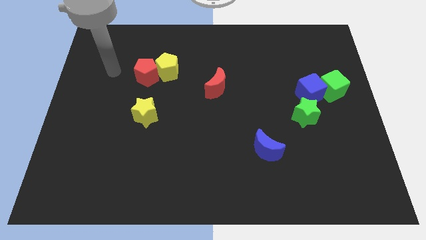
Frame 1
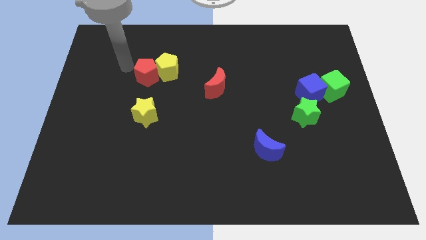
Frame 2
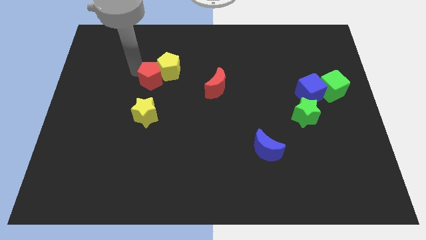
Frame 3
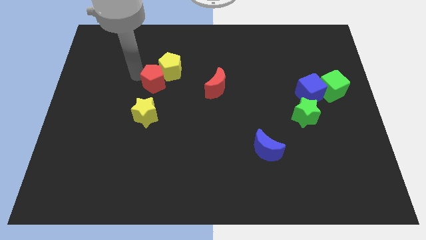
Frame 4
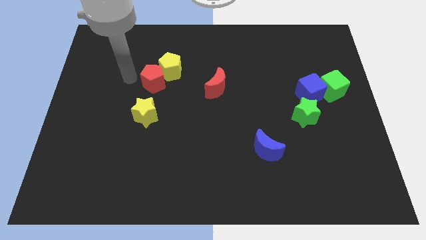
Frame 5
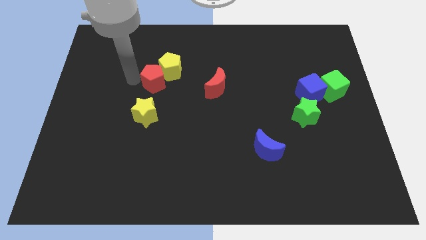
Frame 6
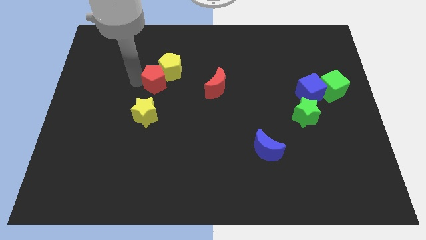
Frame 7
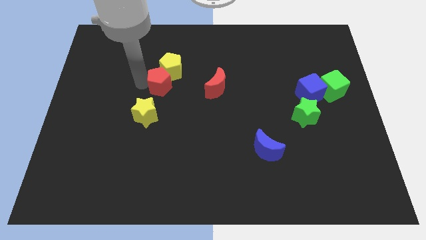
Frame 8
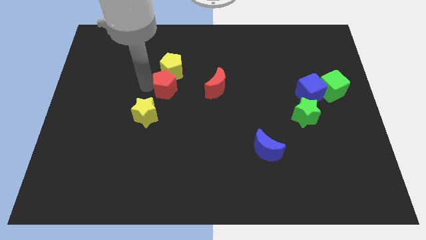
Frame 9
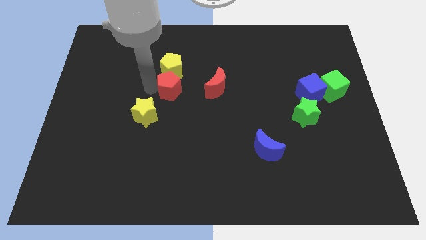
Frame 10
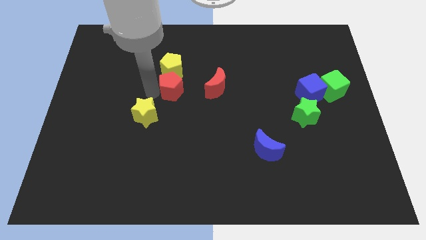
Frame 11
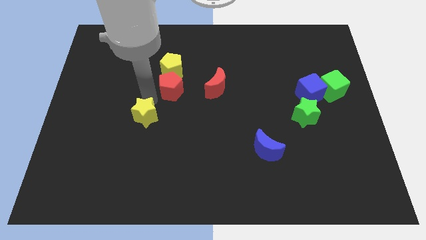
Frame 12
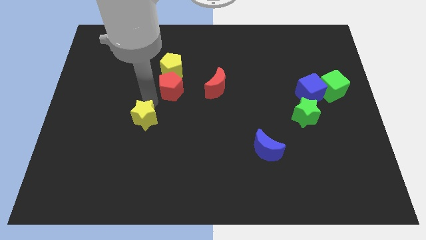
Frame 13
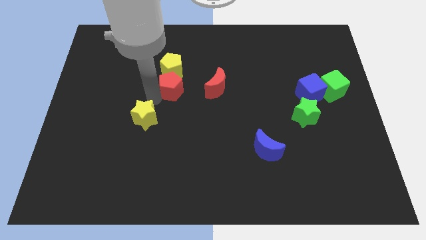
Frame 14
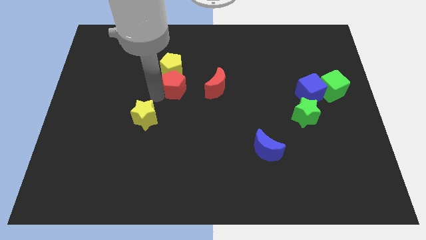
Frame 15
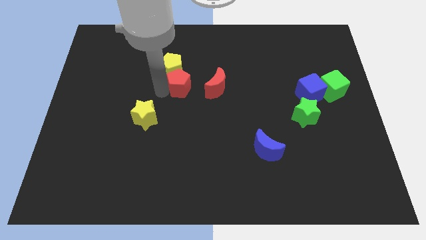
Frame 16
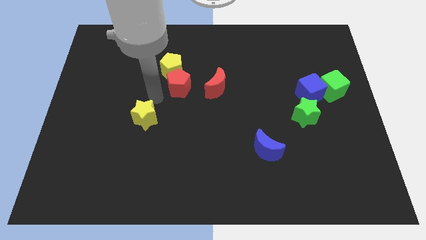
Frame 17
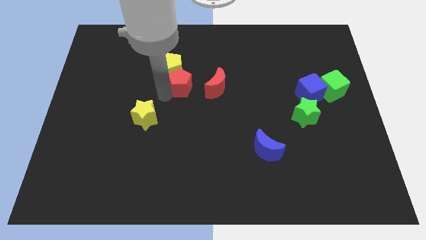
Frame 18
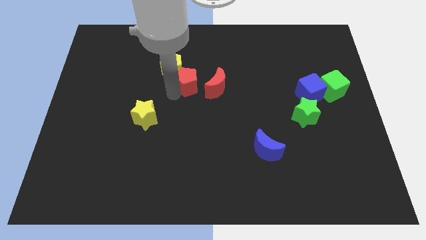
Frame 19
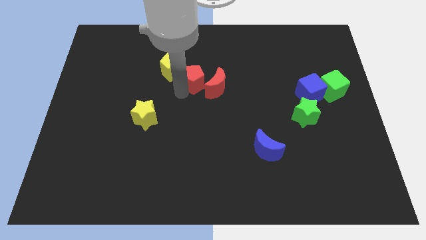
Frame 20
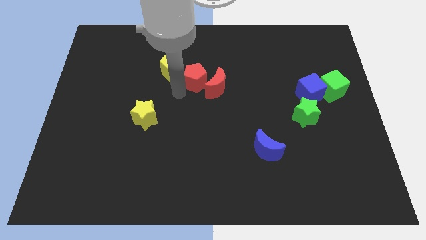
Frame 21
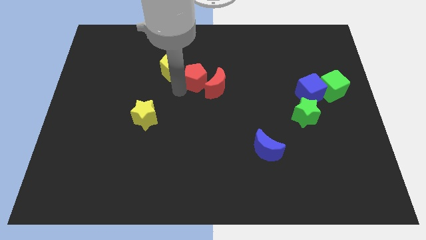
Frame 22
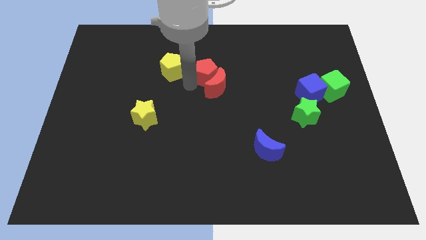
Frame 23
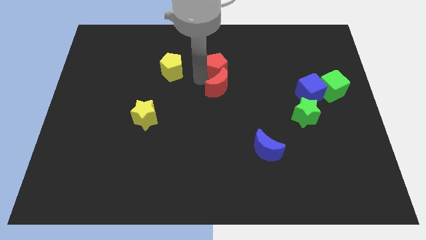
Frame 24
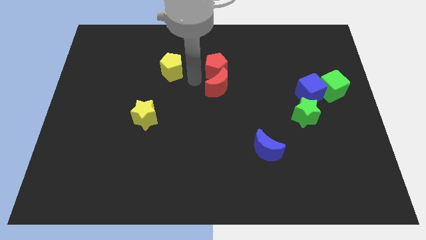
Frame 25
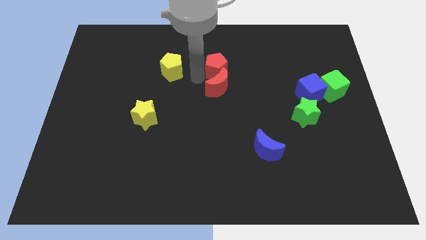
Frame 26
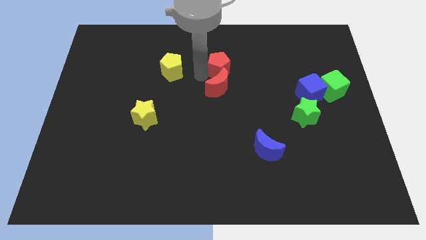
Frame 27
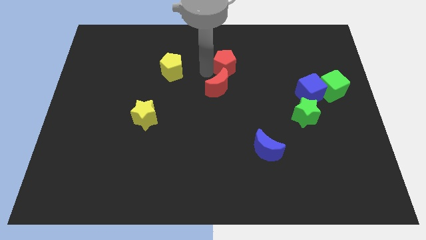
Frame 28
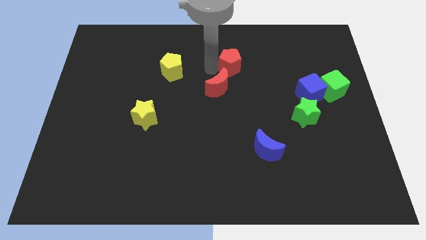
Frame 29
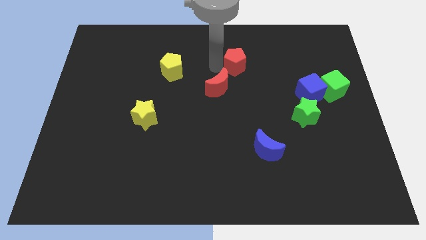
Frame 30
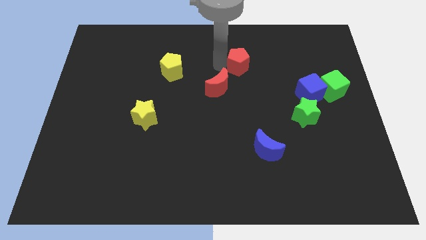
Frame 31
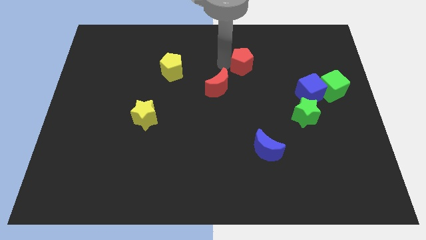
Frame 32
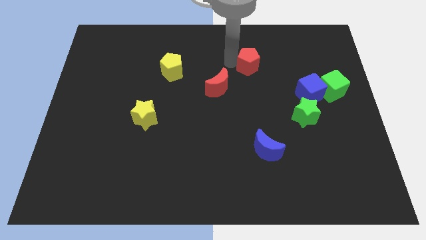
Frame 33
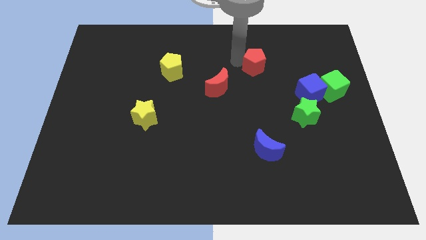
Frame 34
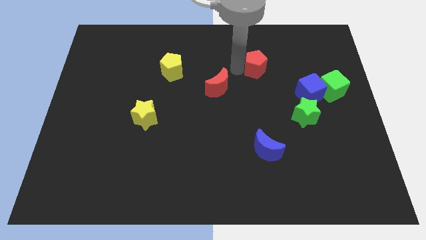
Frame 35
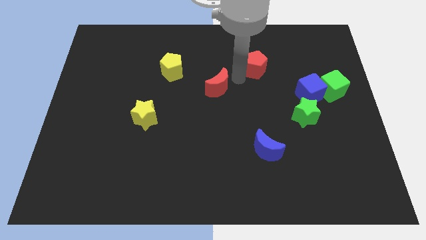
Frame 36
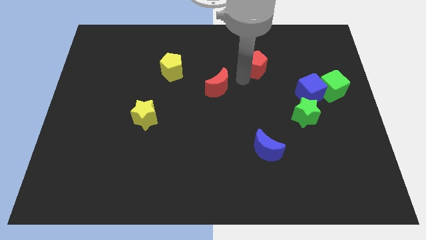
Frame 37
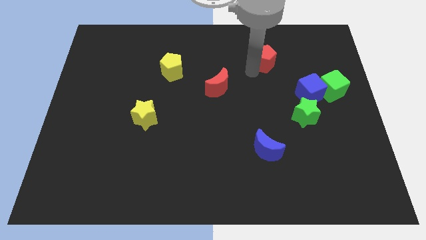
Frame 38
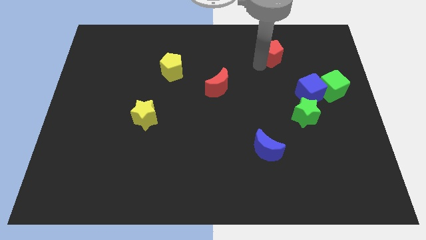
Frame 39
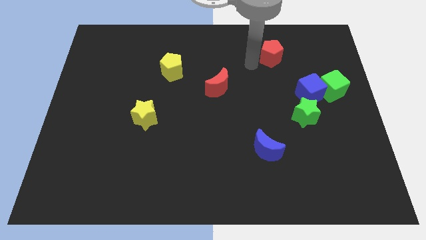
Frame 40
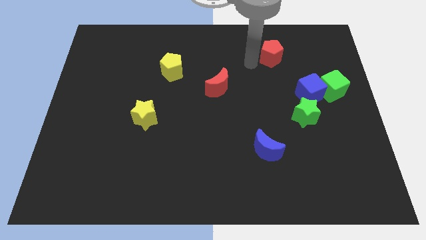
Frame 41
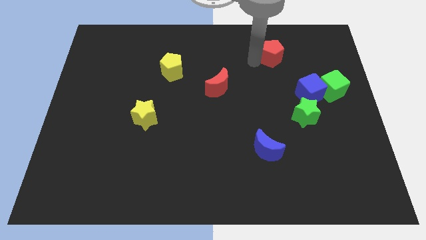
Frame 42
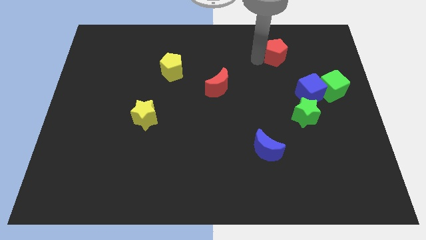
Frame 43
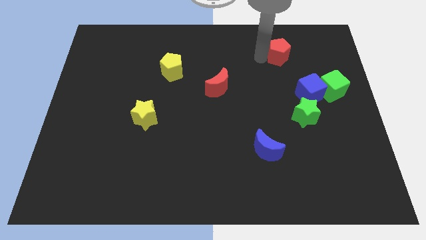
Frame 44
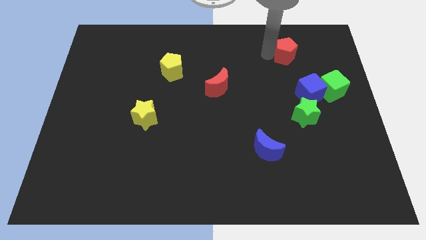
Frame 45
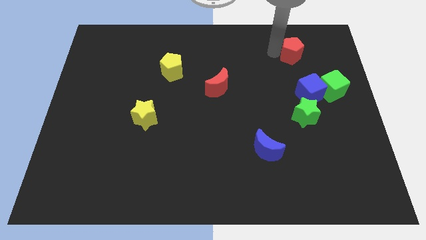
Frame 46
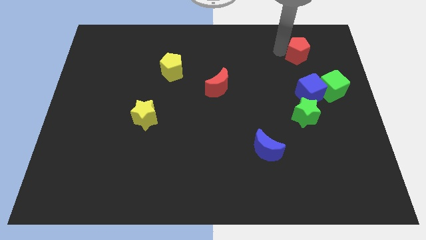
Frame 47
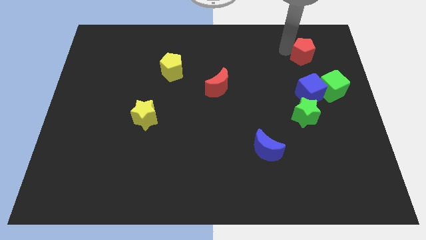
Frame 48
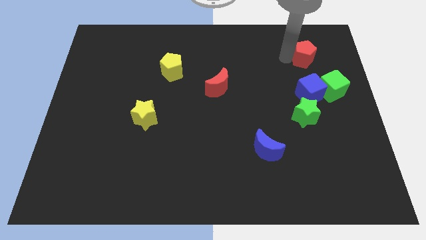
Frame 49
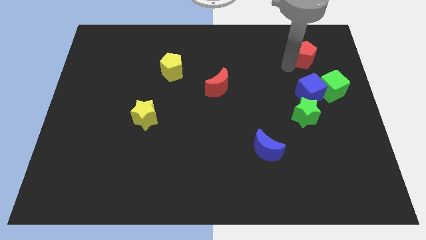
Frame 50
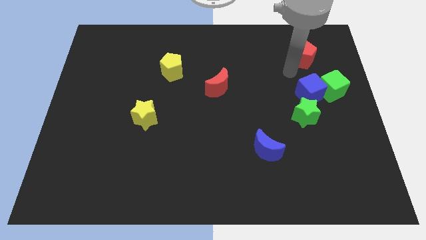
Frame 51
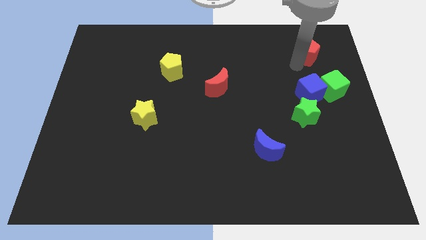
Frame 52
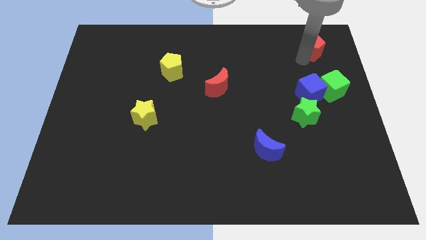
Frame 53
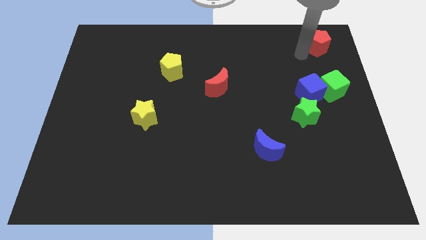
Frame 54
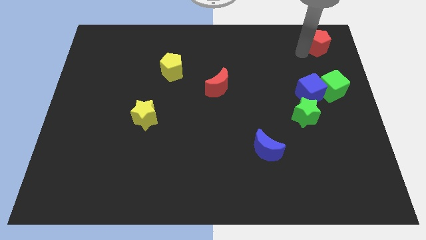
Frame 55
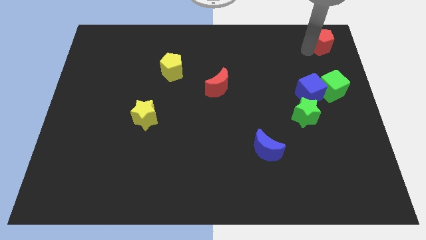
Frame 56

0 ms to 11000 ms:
push the red pentagon to the top right of the board

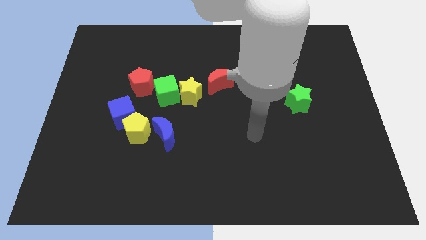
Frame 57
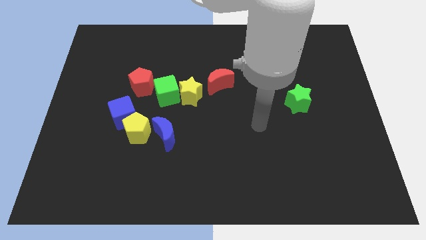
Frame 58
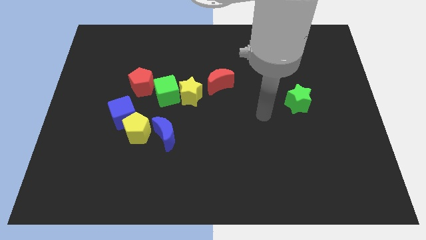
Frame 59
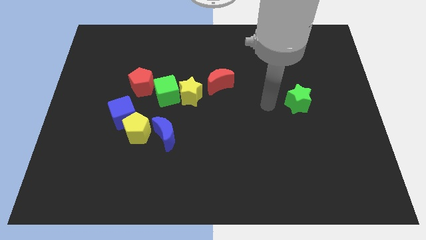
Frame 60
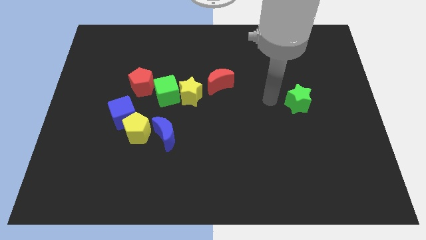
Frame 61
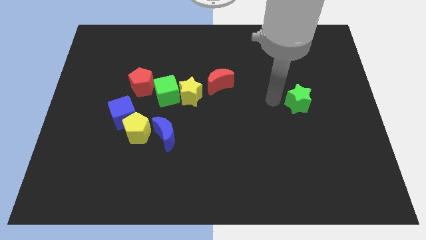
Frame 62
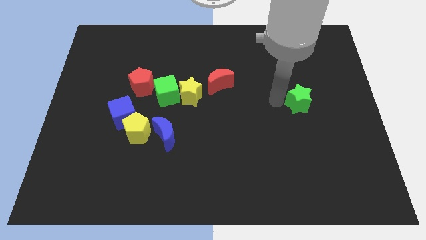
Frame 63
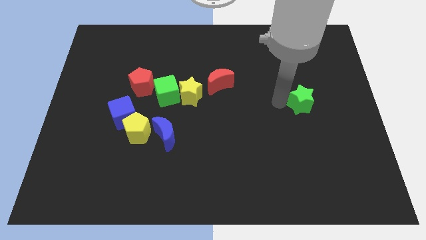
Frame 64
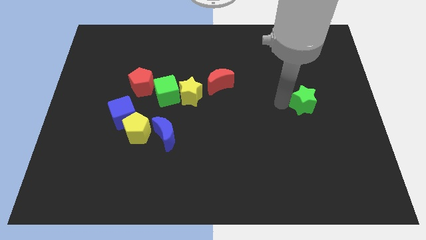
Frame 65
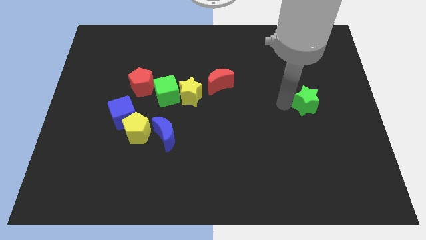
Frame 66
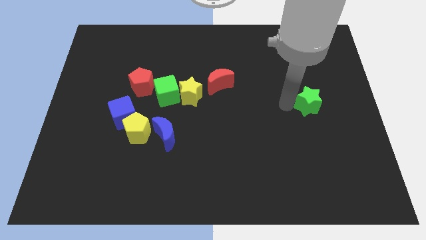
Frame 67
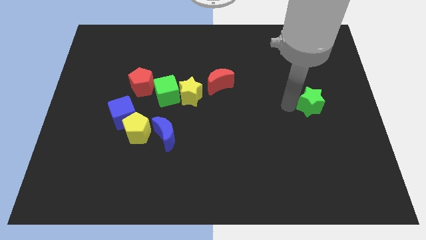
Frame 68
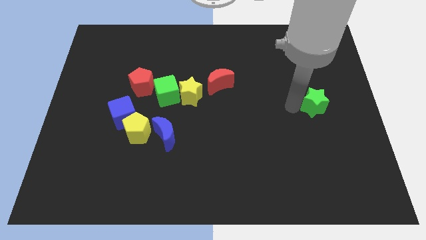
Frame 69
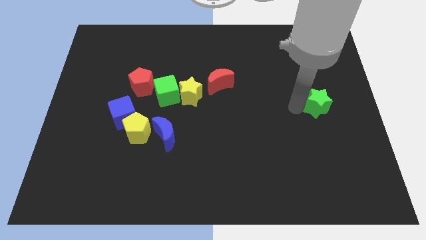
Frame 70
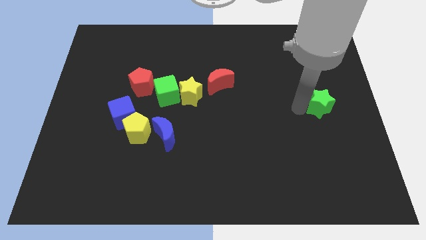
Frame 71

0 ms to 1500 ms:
push the green star to the center right
